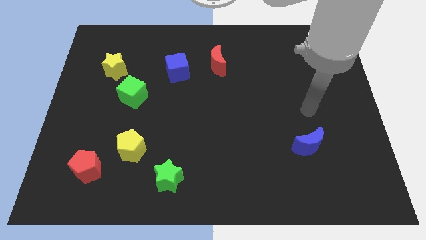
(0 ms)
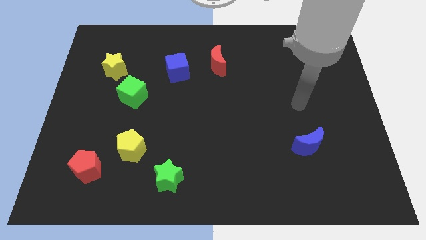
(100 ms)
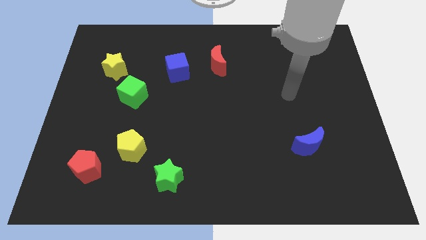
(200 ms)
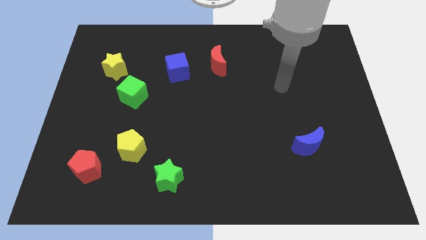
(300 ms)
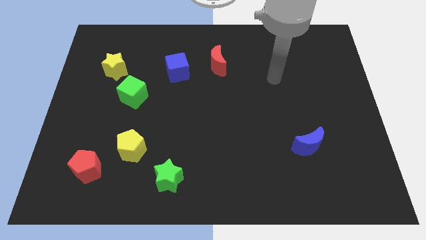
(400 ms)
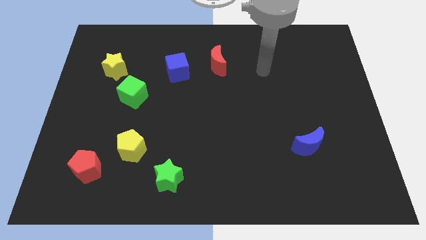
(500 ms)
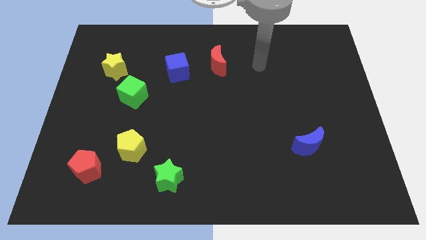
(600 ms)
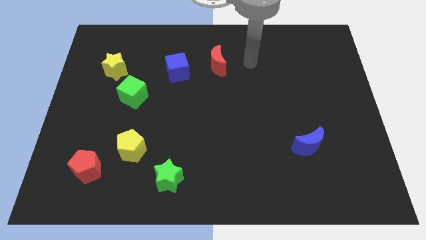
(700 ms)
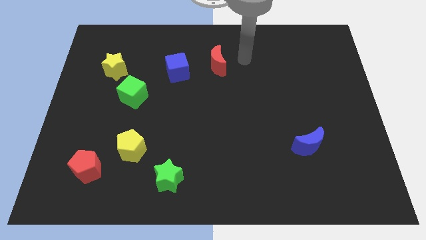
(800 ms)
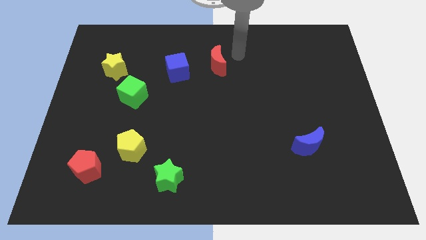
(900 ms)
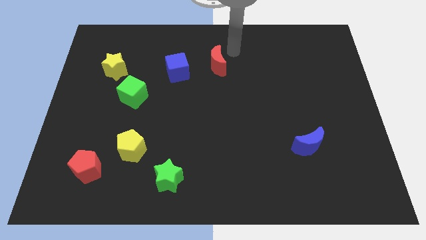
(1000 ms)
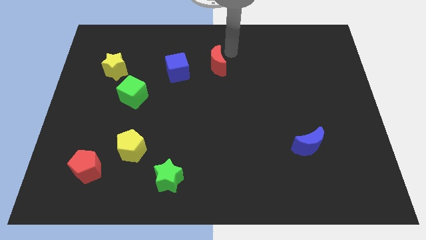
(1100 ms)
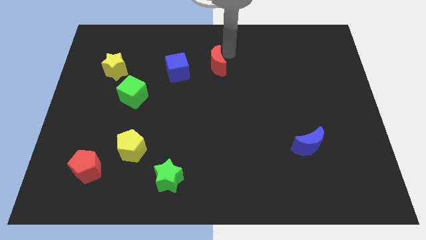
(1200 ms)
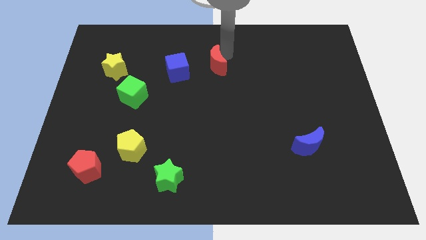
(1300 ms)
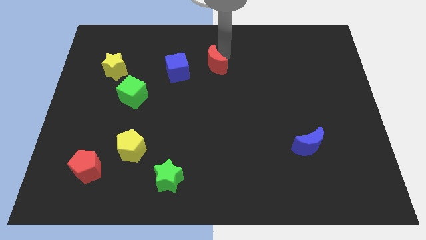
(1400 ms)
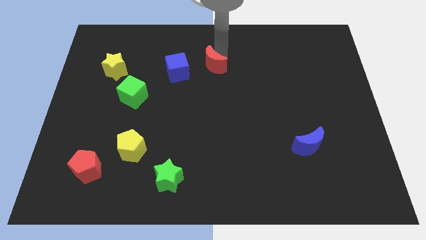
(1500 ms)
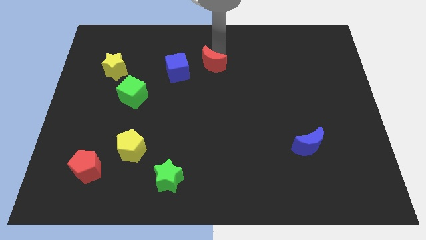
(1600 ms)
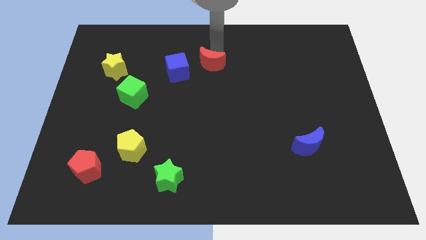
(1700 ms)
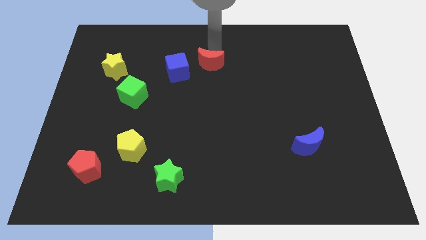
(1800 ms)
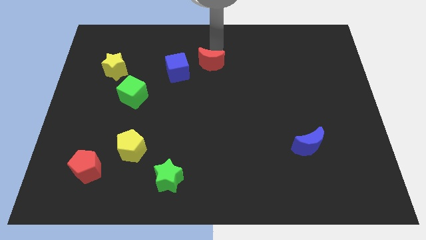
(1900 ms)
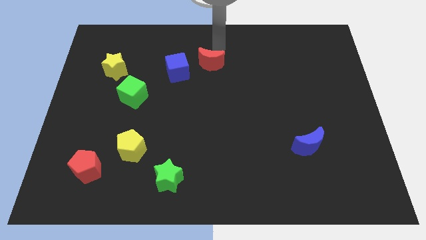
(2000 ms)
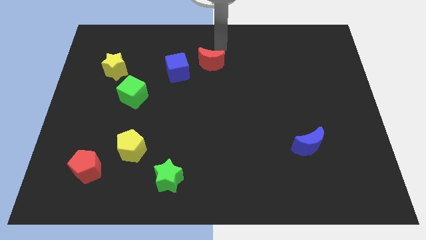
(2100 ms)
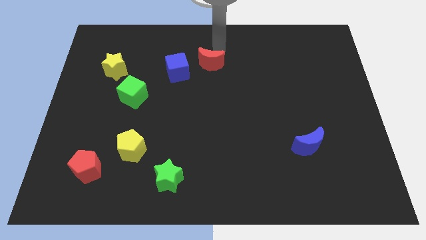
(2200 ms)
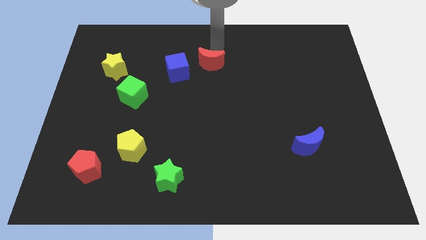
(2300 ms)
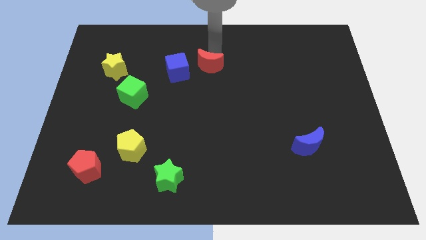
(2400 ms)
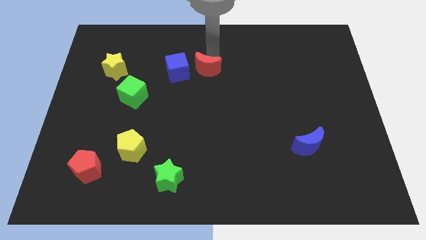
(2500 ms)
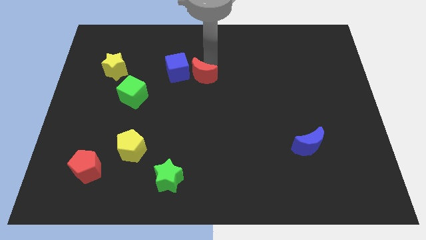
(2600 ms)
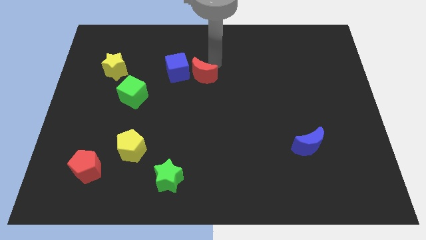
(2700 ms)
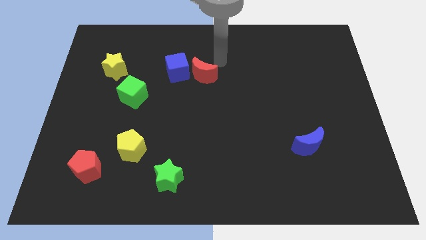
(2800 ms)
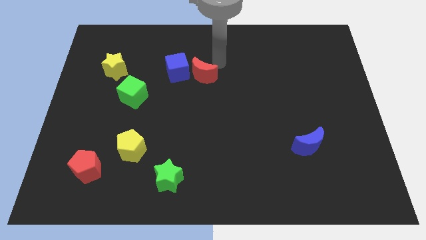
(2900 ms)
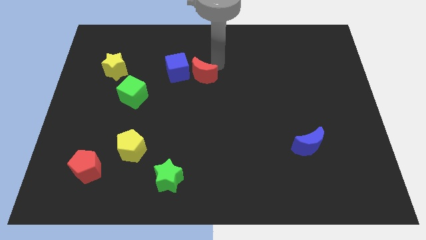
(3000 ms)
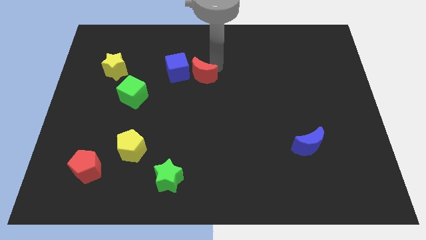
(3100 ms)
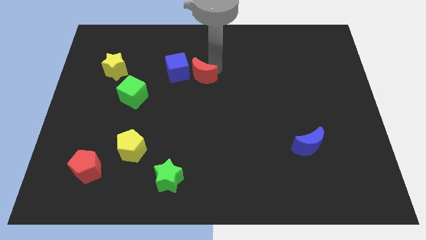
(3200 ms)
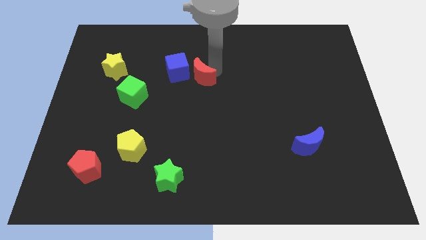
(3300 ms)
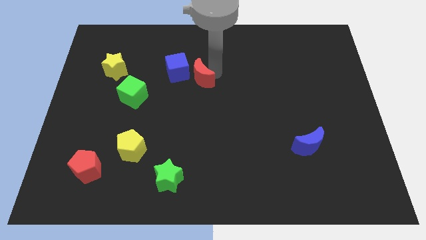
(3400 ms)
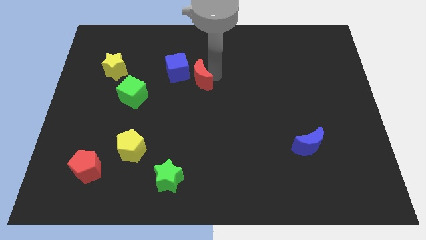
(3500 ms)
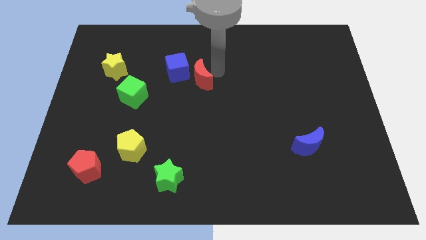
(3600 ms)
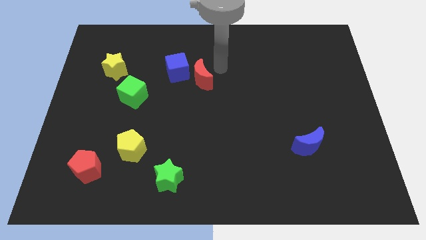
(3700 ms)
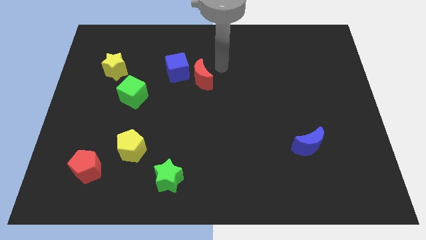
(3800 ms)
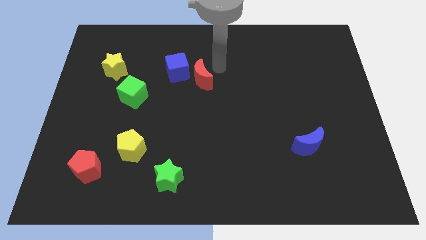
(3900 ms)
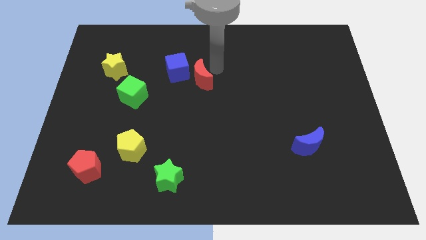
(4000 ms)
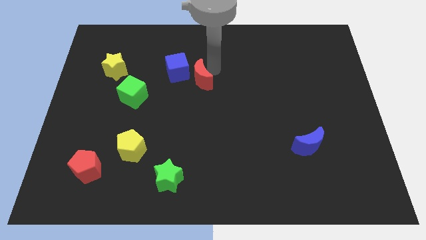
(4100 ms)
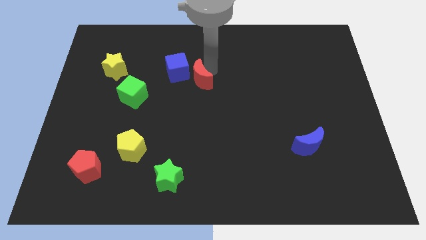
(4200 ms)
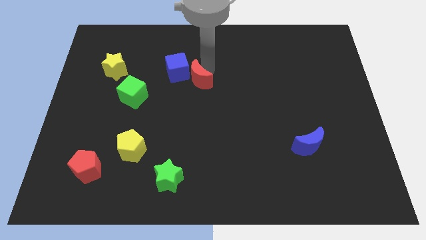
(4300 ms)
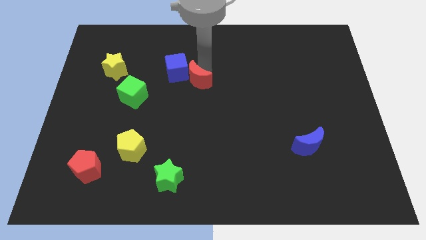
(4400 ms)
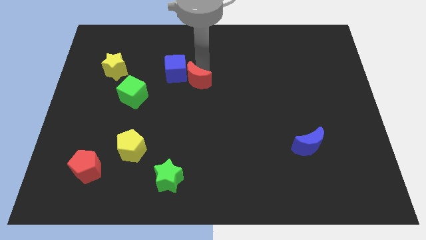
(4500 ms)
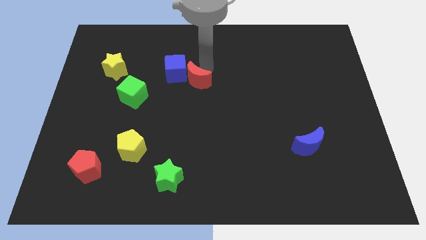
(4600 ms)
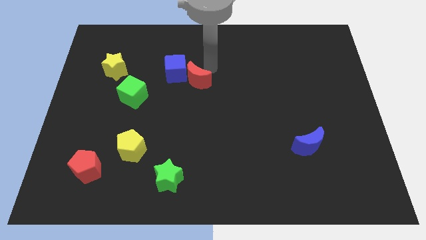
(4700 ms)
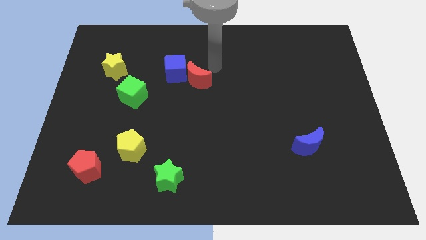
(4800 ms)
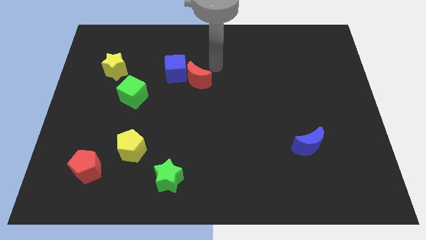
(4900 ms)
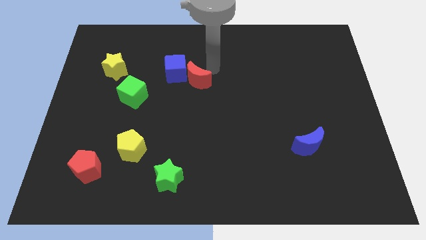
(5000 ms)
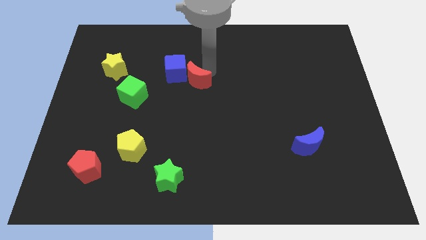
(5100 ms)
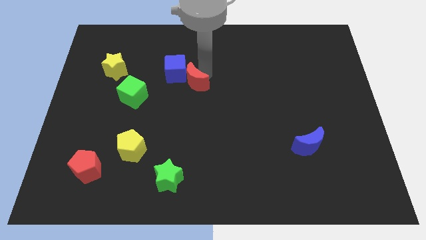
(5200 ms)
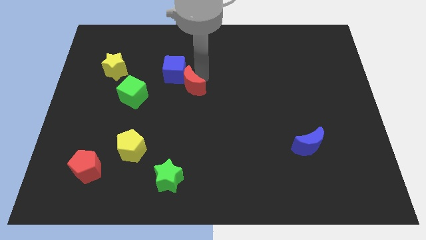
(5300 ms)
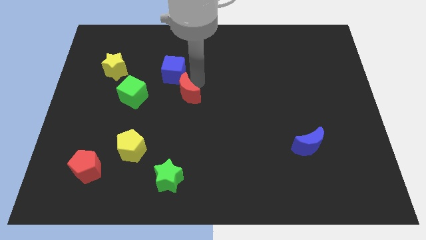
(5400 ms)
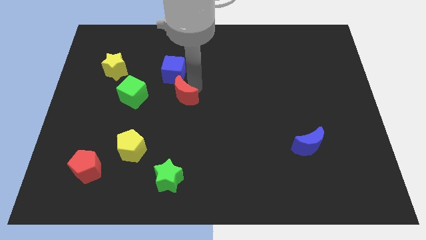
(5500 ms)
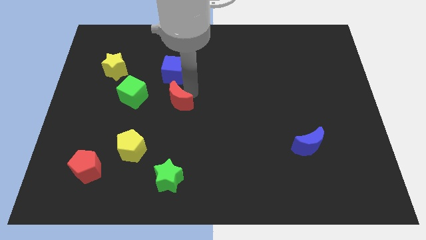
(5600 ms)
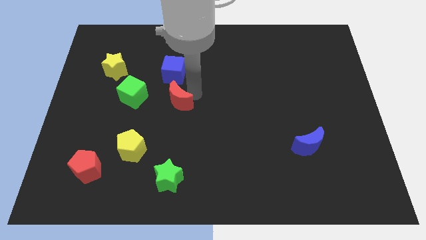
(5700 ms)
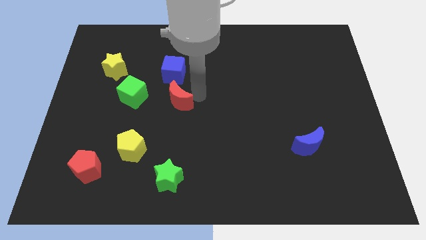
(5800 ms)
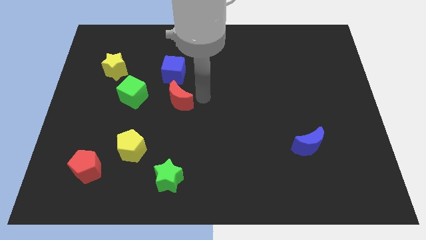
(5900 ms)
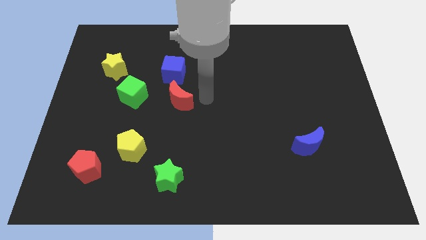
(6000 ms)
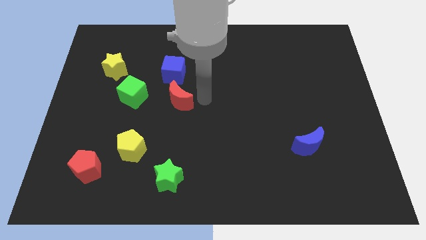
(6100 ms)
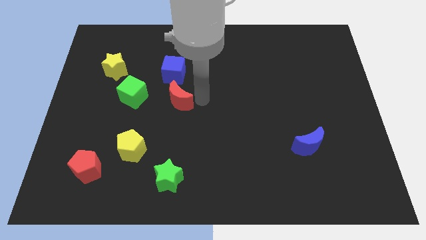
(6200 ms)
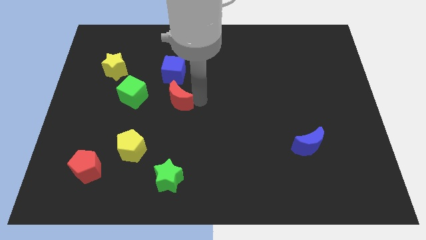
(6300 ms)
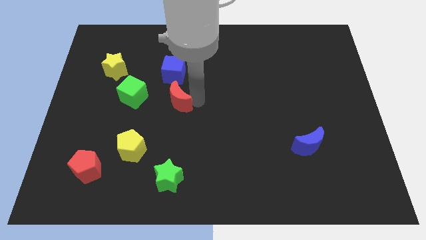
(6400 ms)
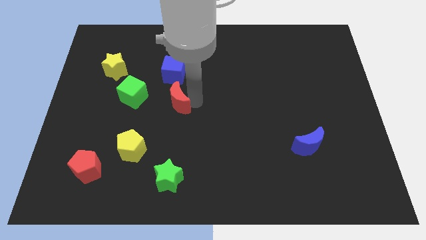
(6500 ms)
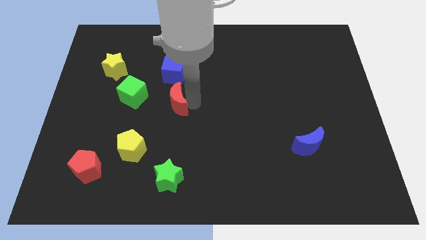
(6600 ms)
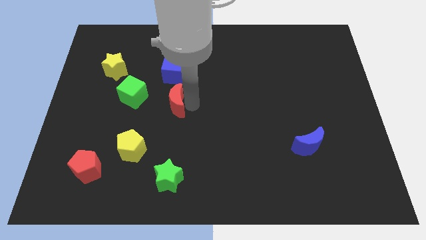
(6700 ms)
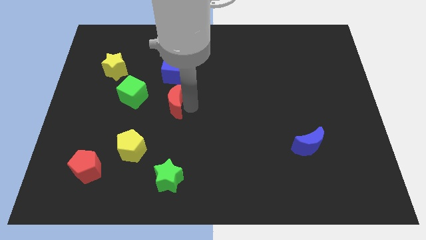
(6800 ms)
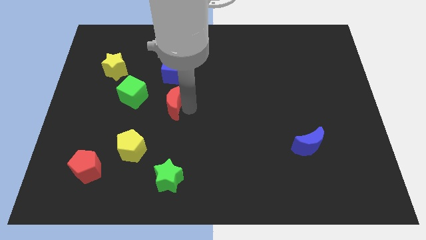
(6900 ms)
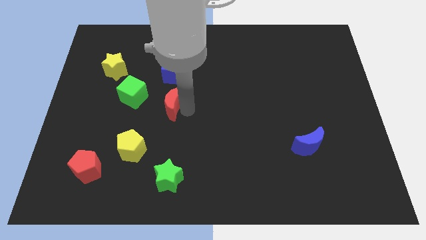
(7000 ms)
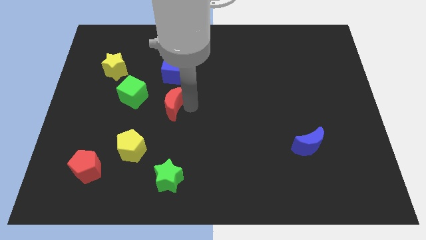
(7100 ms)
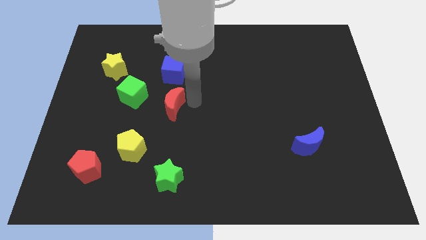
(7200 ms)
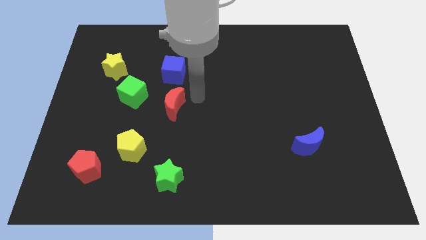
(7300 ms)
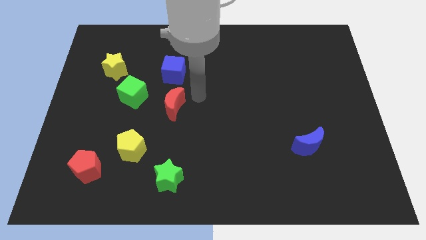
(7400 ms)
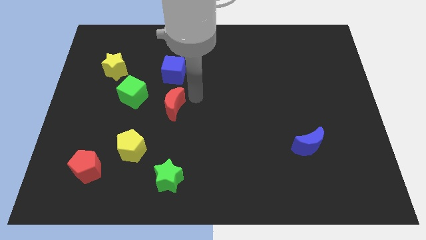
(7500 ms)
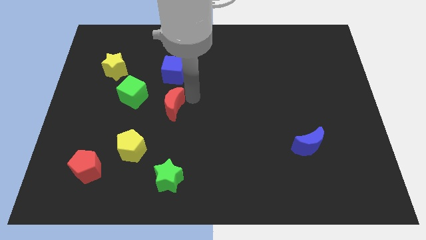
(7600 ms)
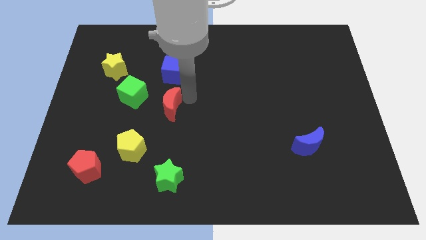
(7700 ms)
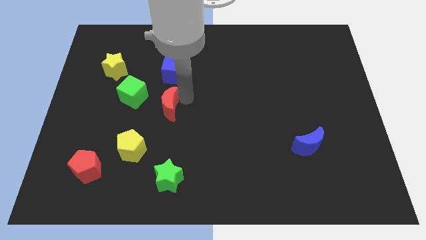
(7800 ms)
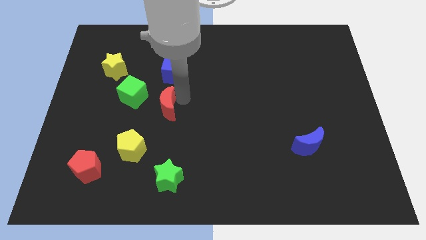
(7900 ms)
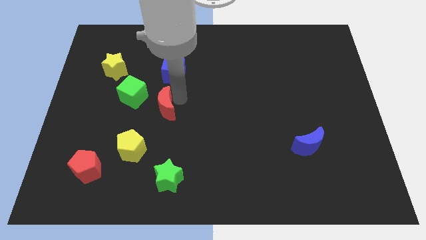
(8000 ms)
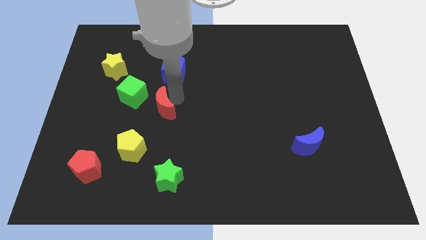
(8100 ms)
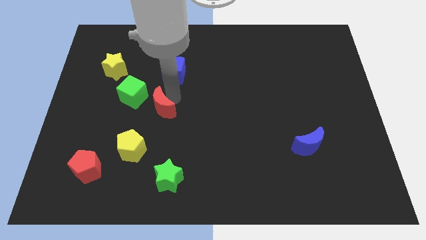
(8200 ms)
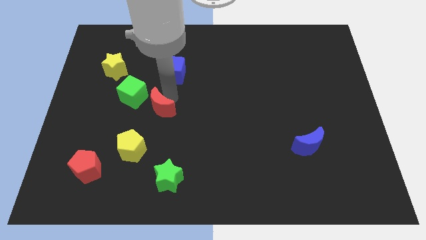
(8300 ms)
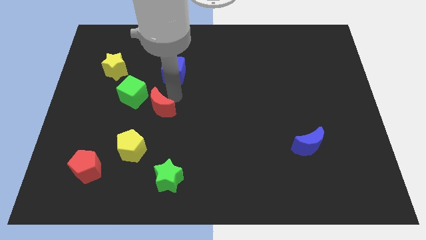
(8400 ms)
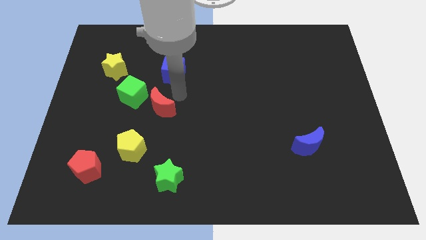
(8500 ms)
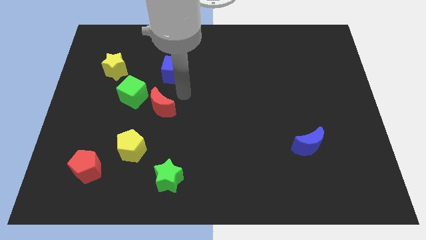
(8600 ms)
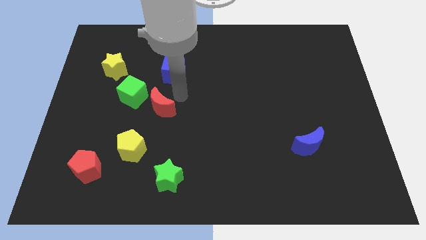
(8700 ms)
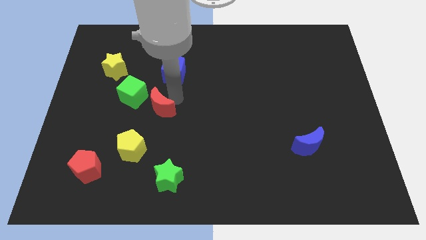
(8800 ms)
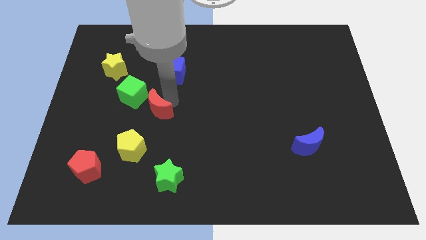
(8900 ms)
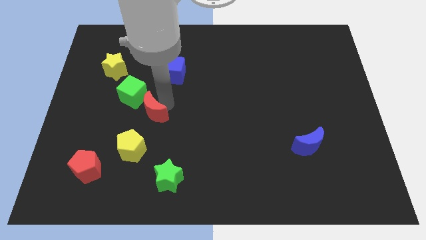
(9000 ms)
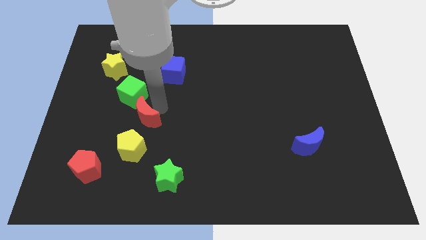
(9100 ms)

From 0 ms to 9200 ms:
push the red moon below the green cube
